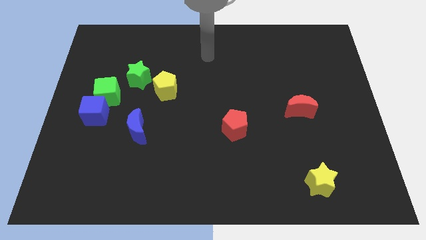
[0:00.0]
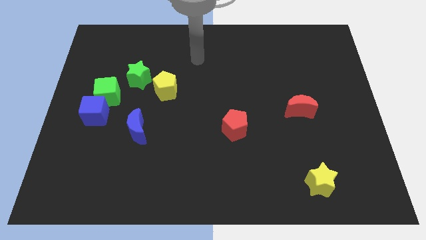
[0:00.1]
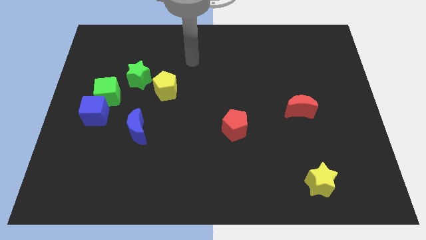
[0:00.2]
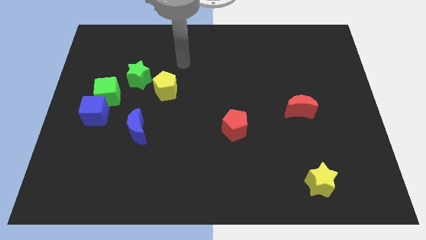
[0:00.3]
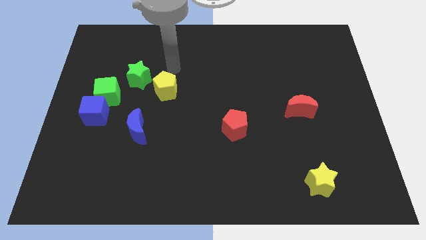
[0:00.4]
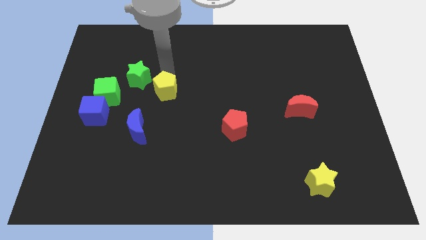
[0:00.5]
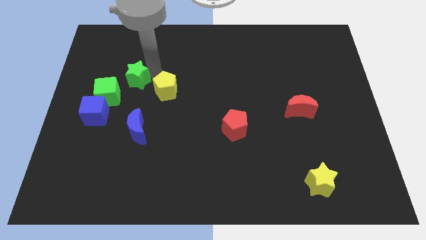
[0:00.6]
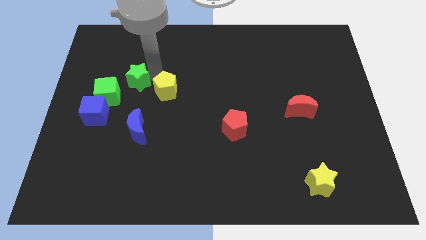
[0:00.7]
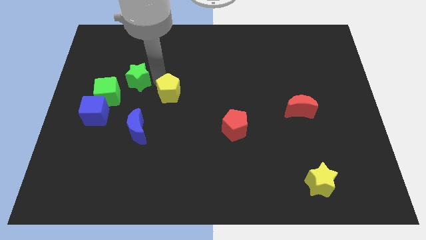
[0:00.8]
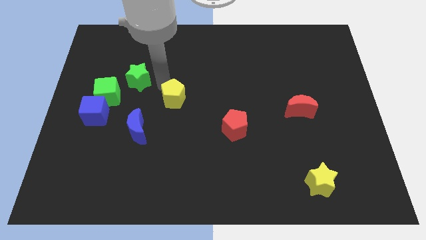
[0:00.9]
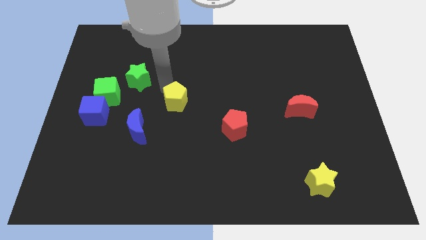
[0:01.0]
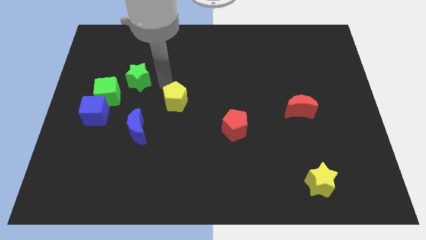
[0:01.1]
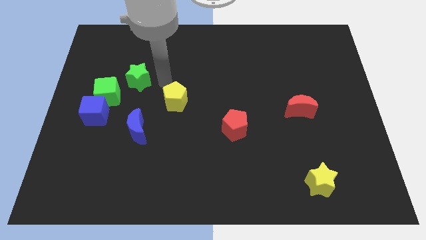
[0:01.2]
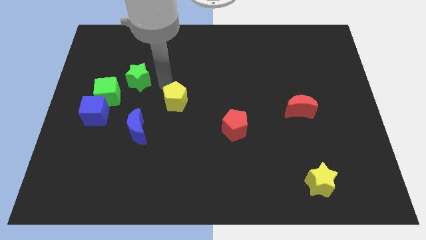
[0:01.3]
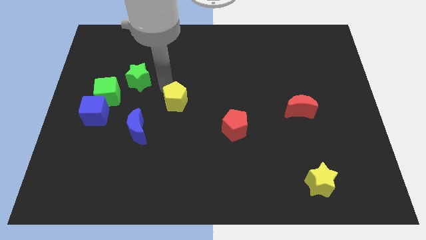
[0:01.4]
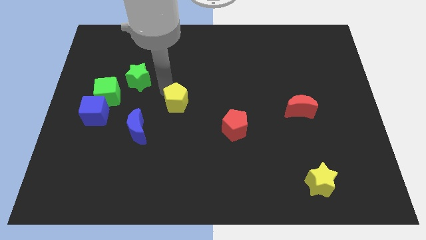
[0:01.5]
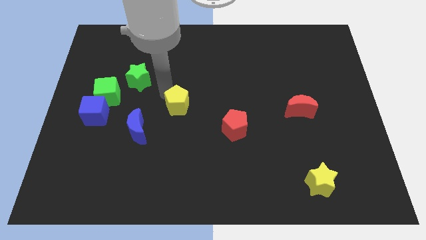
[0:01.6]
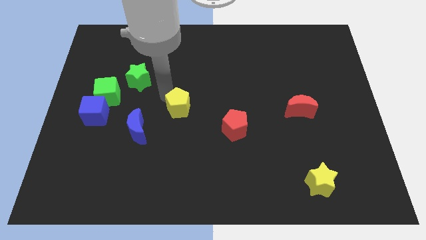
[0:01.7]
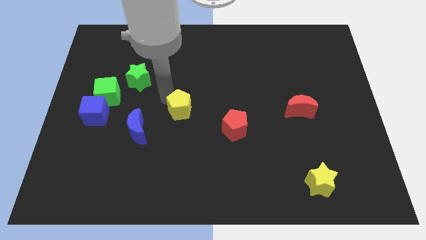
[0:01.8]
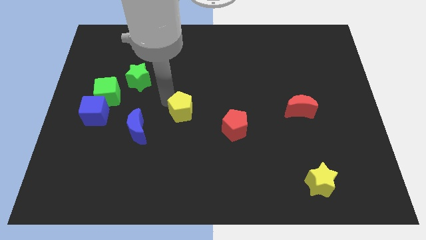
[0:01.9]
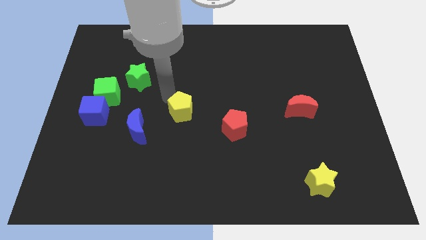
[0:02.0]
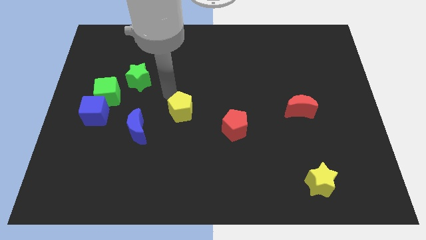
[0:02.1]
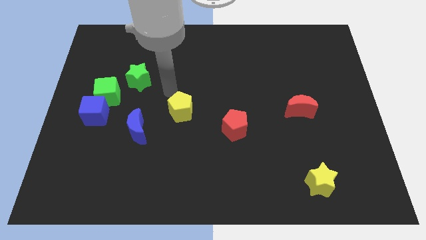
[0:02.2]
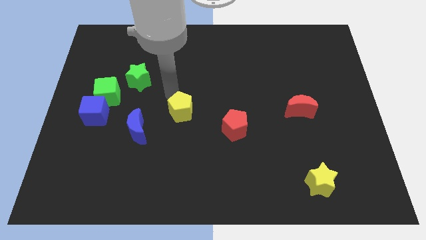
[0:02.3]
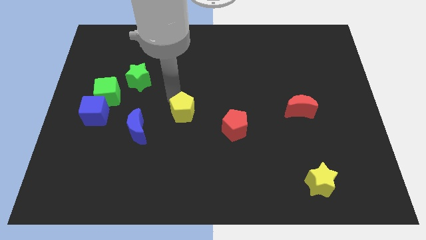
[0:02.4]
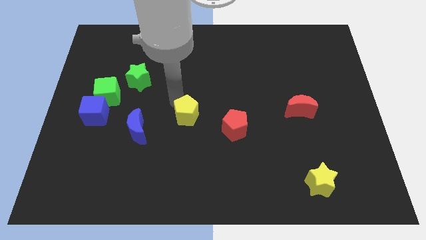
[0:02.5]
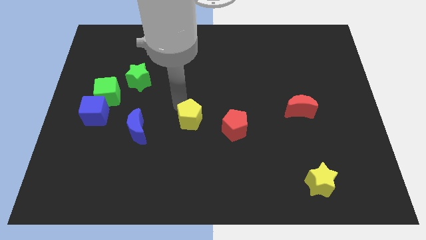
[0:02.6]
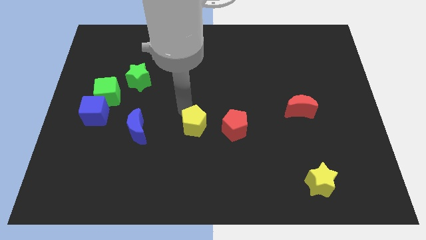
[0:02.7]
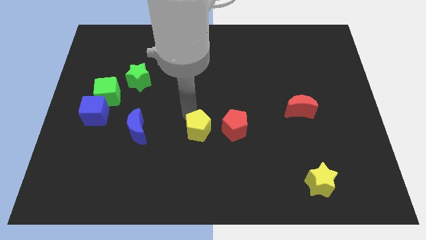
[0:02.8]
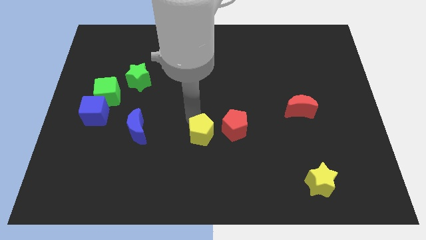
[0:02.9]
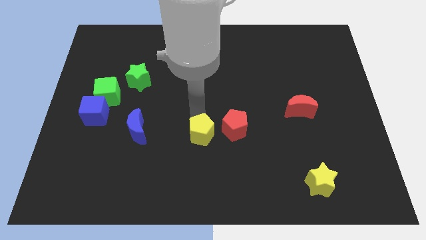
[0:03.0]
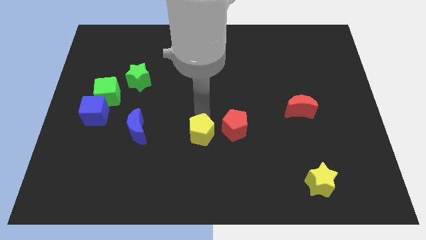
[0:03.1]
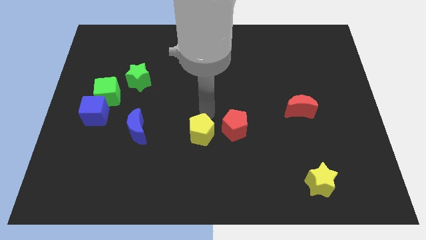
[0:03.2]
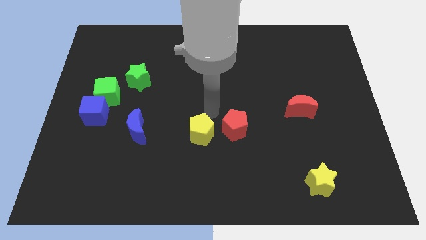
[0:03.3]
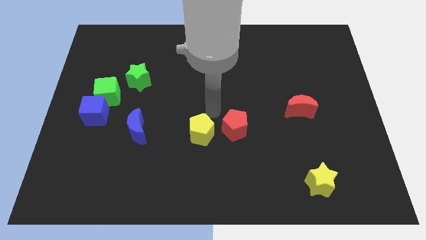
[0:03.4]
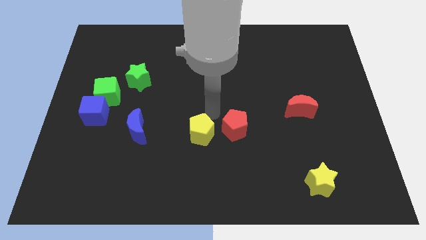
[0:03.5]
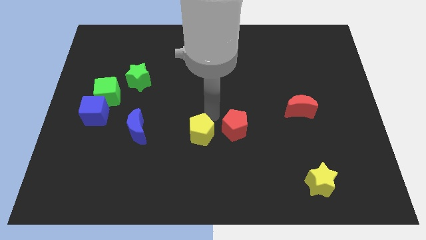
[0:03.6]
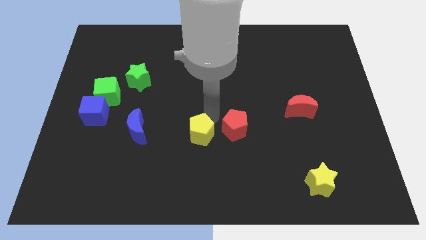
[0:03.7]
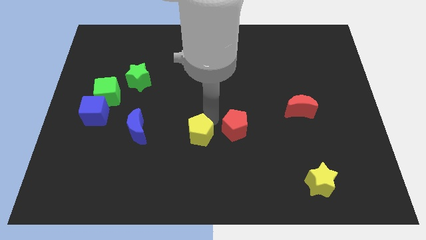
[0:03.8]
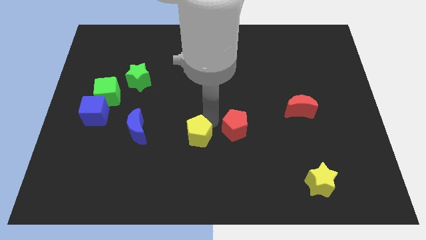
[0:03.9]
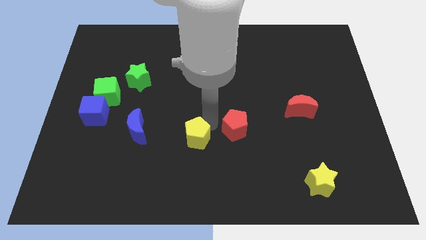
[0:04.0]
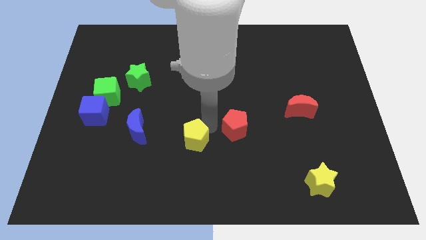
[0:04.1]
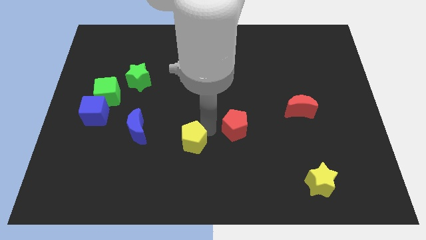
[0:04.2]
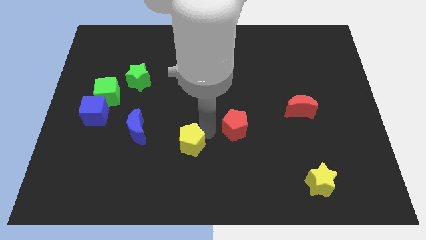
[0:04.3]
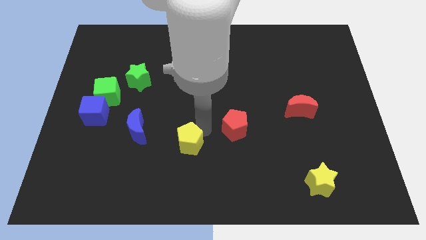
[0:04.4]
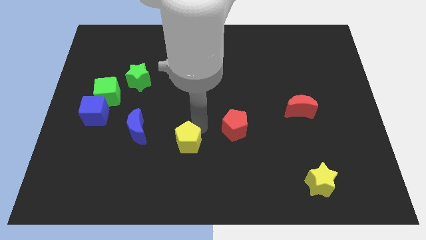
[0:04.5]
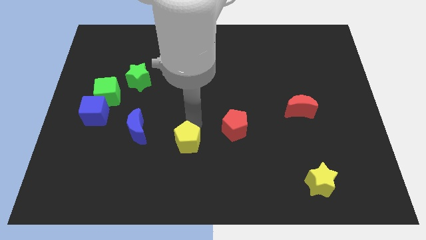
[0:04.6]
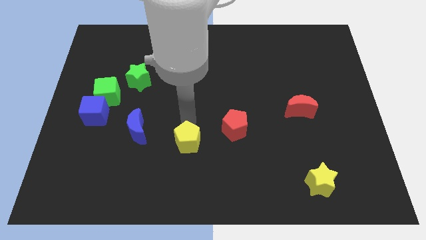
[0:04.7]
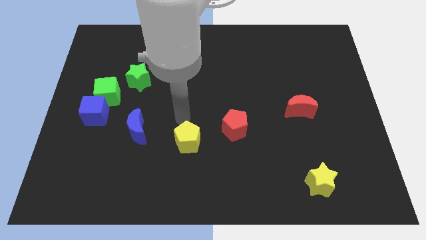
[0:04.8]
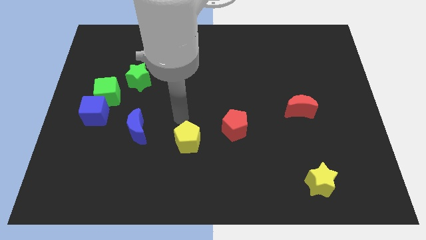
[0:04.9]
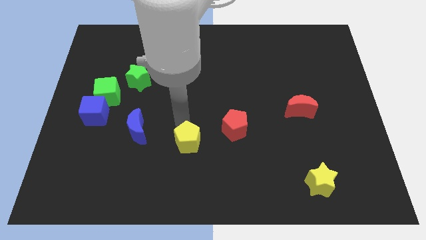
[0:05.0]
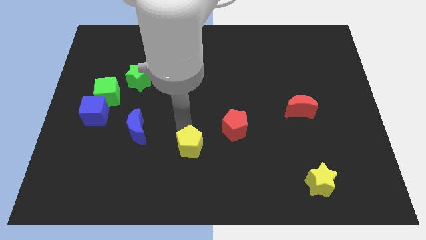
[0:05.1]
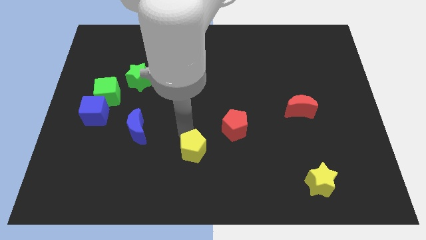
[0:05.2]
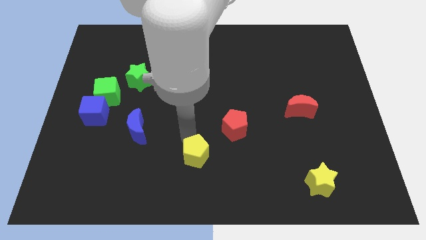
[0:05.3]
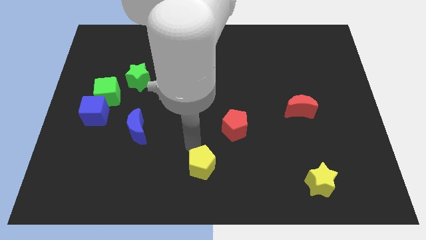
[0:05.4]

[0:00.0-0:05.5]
move the yellow pentagon to the bottom side

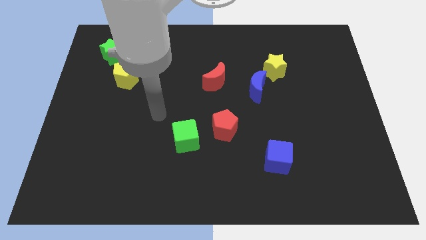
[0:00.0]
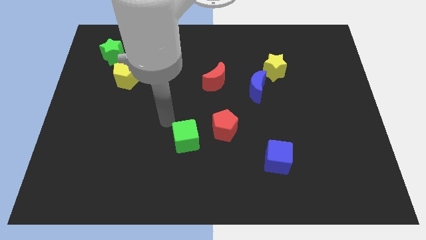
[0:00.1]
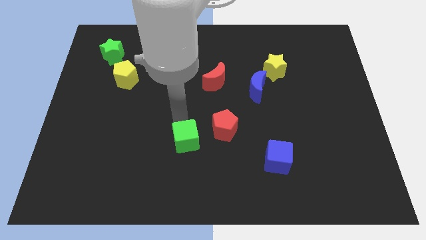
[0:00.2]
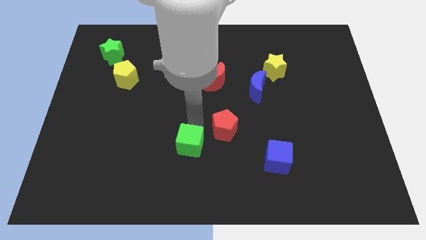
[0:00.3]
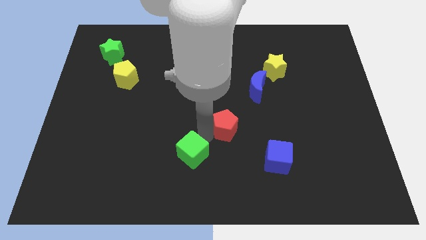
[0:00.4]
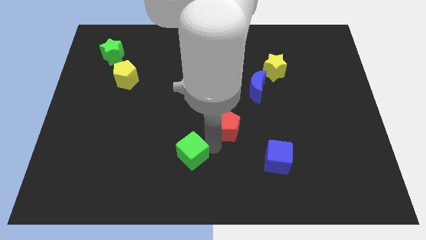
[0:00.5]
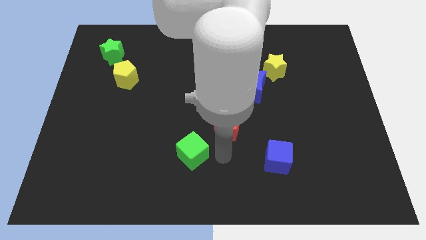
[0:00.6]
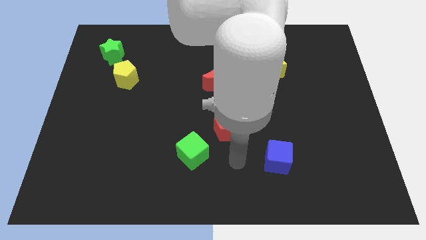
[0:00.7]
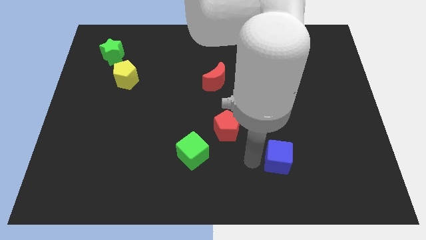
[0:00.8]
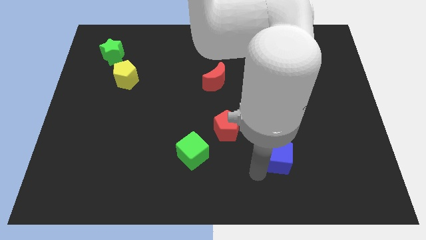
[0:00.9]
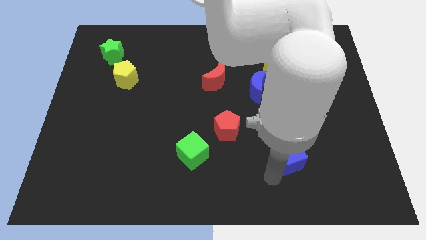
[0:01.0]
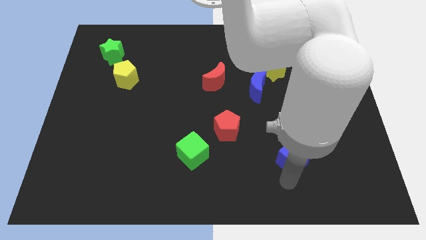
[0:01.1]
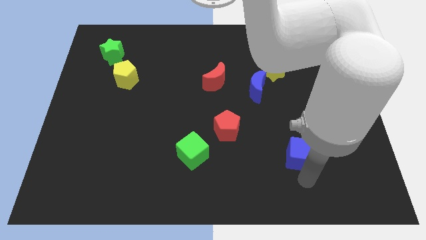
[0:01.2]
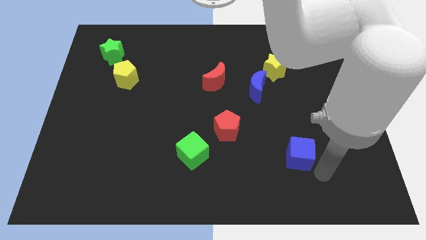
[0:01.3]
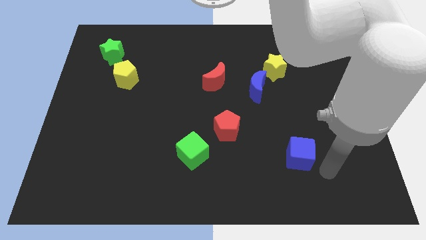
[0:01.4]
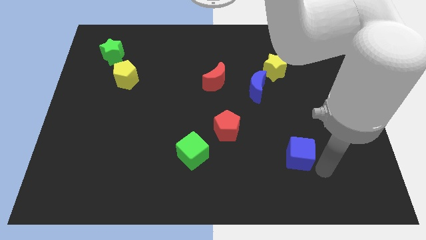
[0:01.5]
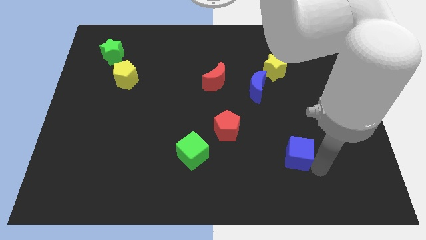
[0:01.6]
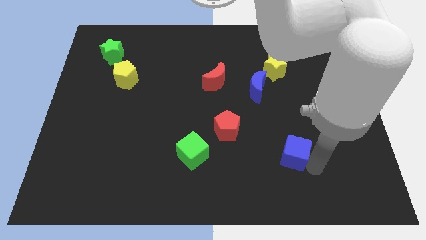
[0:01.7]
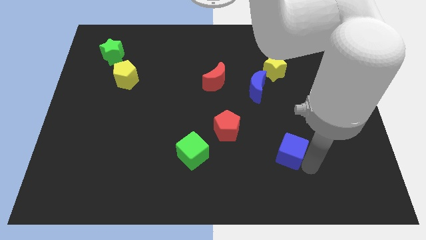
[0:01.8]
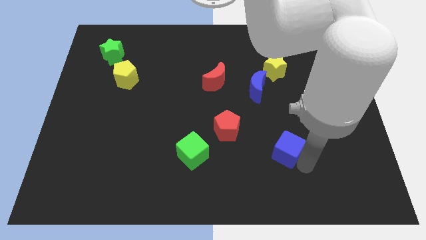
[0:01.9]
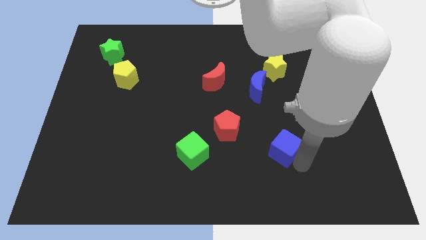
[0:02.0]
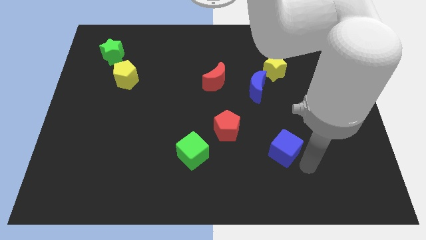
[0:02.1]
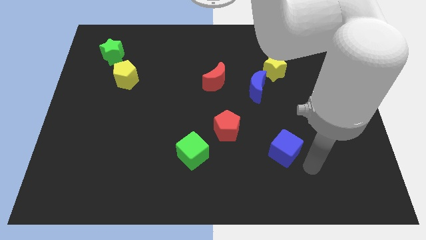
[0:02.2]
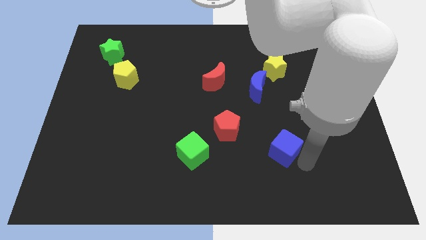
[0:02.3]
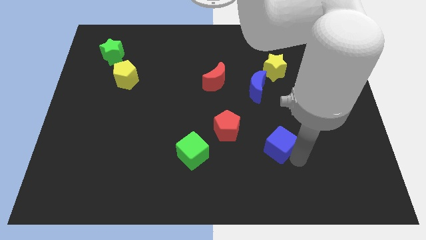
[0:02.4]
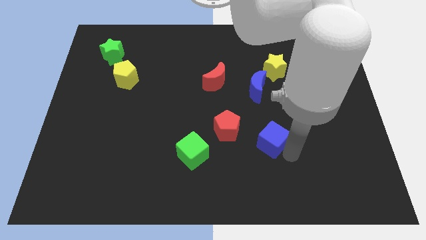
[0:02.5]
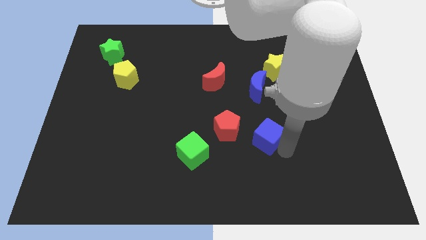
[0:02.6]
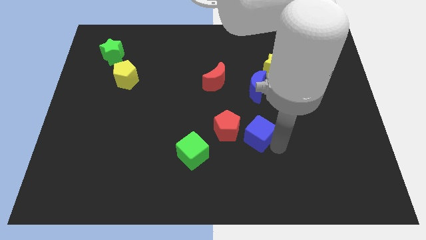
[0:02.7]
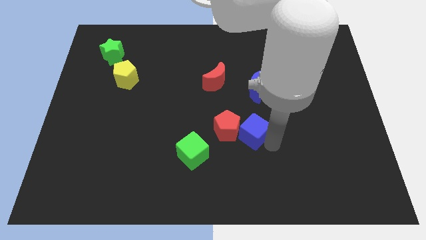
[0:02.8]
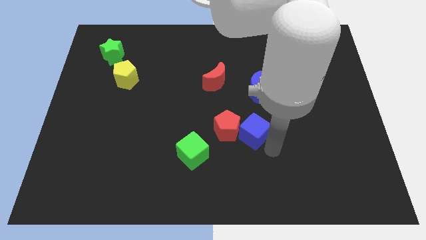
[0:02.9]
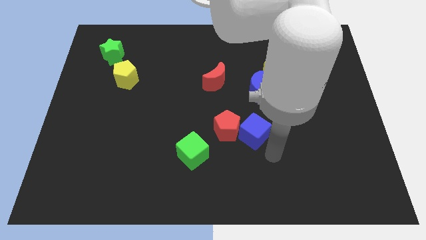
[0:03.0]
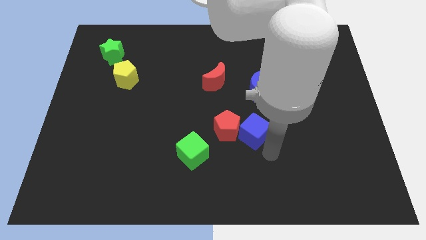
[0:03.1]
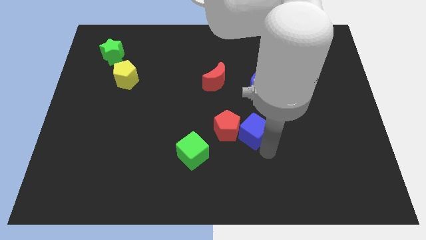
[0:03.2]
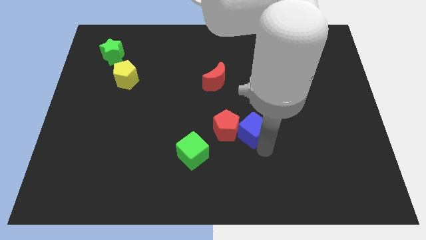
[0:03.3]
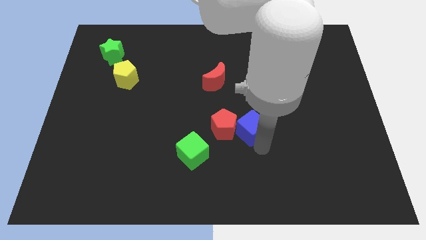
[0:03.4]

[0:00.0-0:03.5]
put the blue cube to the middle
